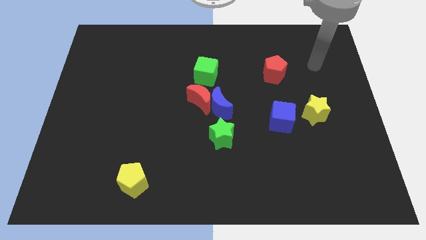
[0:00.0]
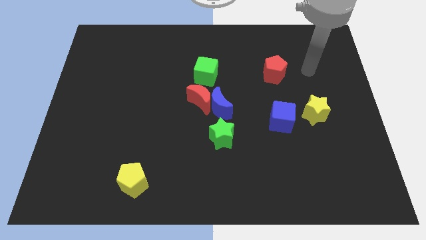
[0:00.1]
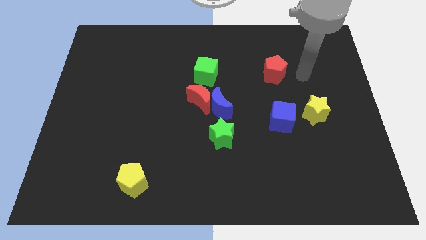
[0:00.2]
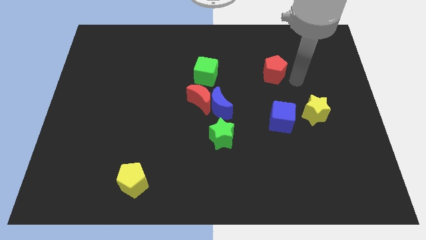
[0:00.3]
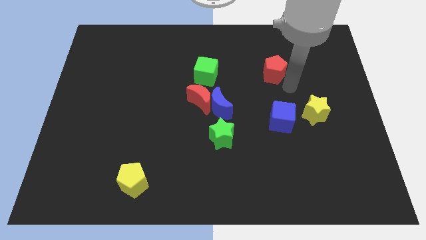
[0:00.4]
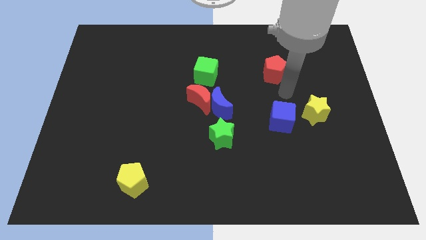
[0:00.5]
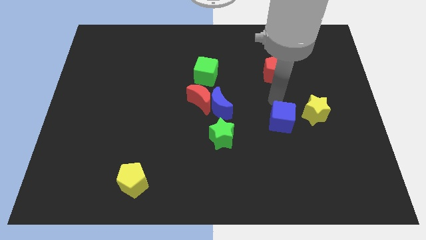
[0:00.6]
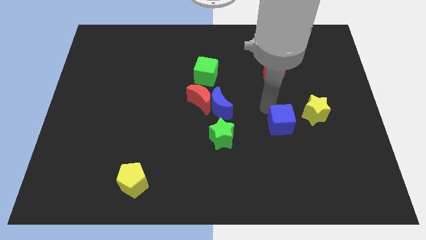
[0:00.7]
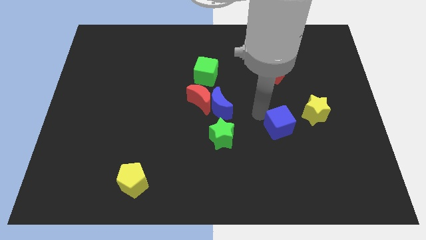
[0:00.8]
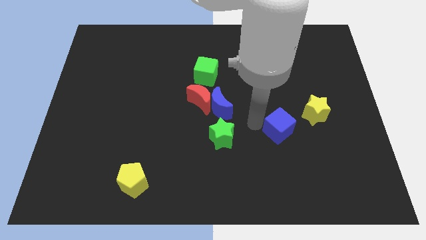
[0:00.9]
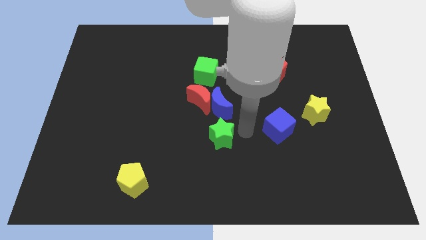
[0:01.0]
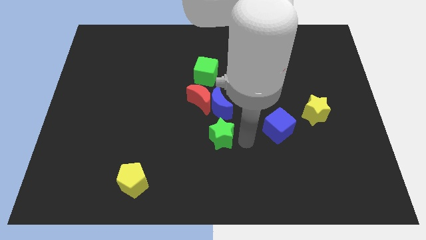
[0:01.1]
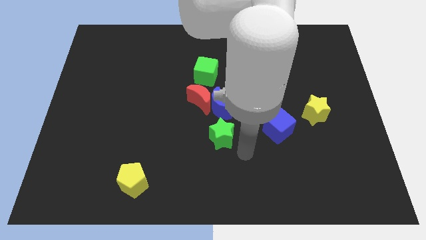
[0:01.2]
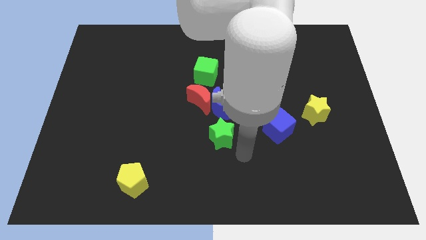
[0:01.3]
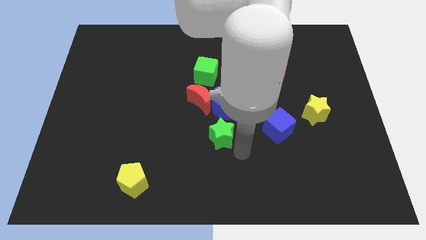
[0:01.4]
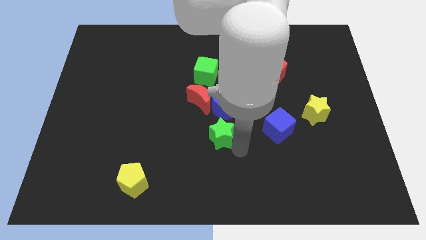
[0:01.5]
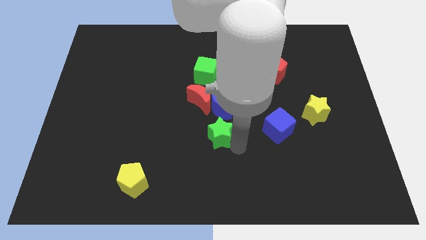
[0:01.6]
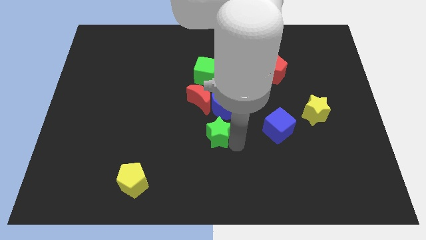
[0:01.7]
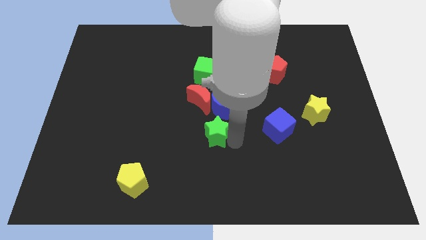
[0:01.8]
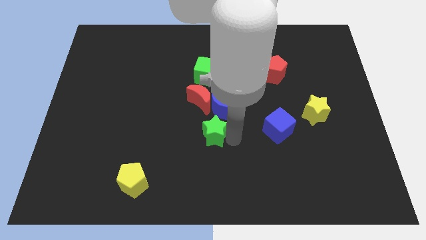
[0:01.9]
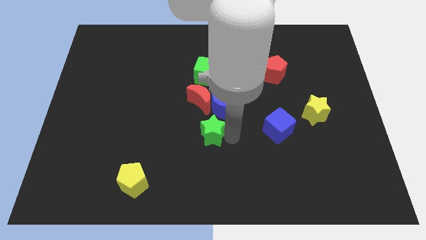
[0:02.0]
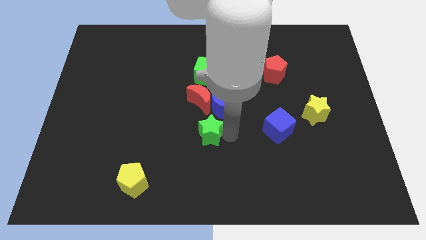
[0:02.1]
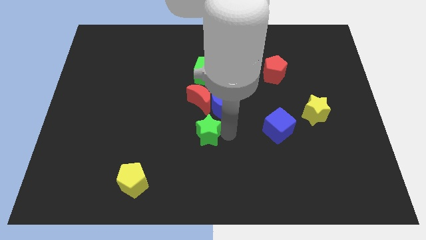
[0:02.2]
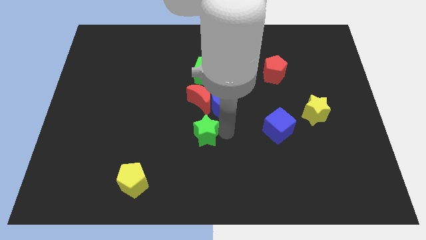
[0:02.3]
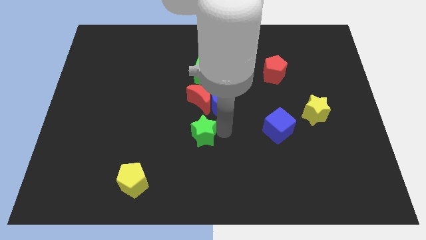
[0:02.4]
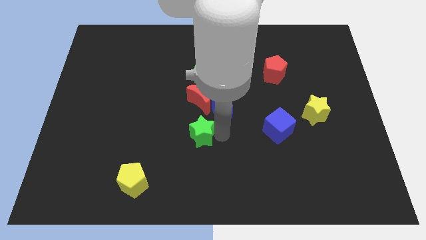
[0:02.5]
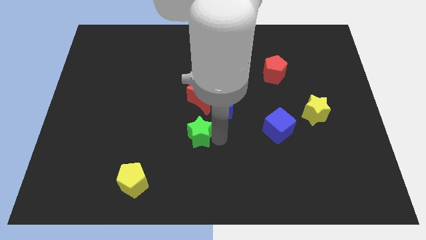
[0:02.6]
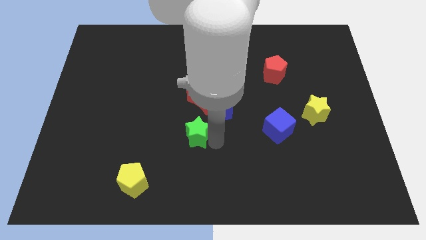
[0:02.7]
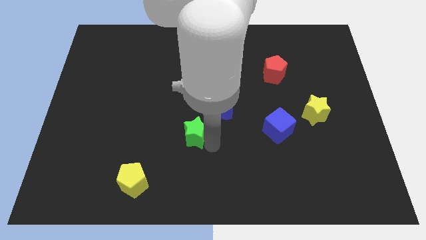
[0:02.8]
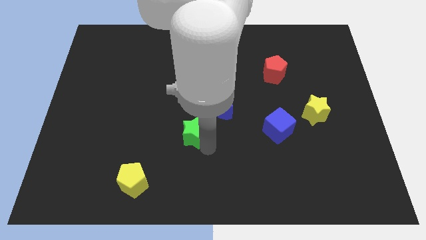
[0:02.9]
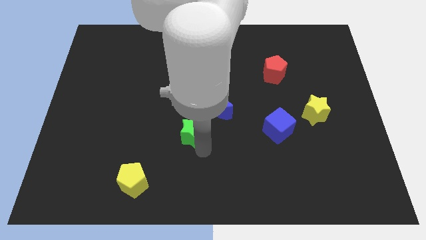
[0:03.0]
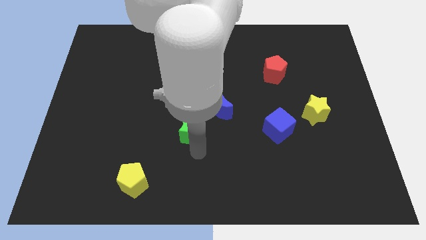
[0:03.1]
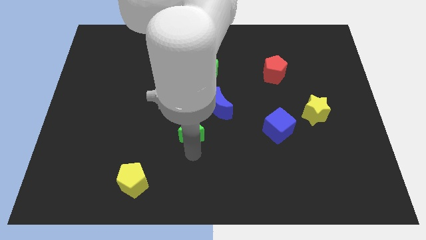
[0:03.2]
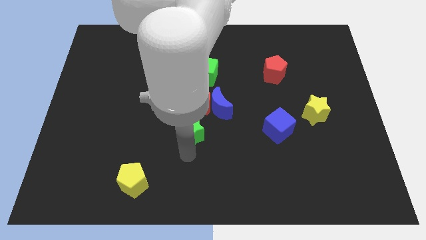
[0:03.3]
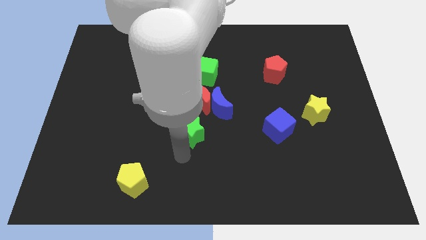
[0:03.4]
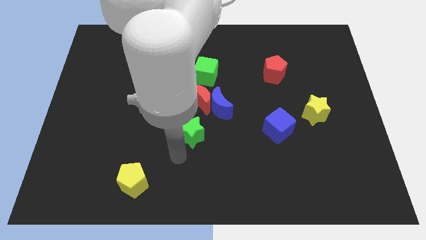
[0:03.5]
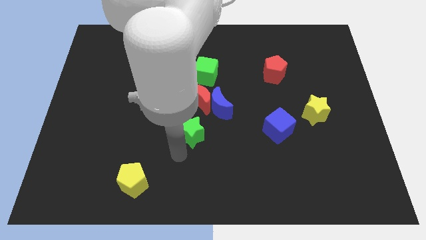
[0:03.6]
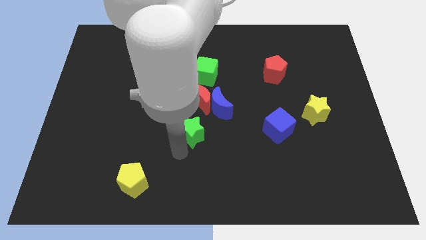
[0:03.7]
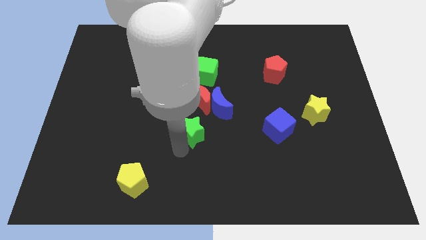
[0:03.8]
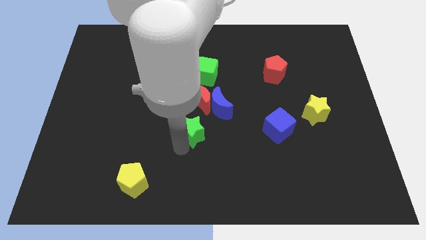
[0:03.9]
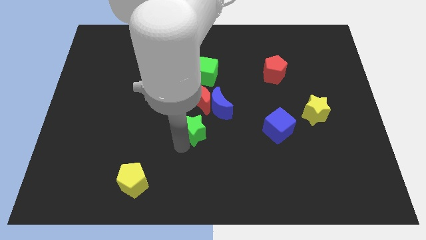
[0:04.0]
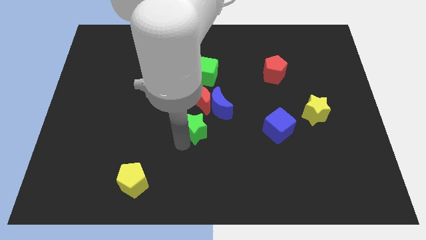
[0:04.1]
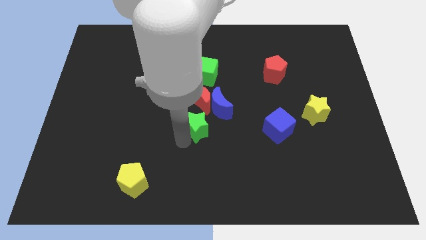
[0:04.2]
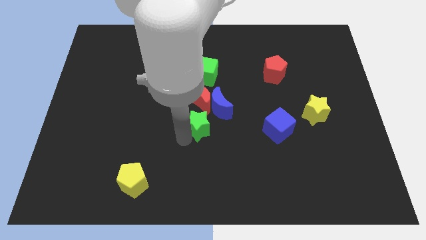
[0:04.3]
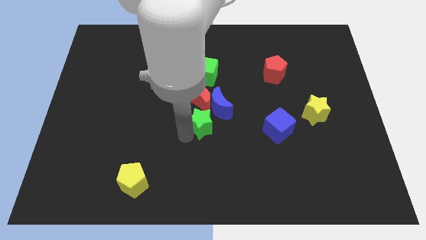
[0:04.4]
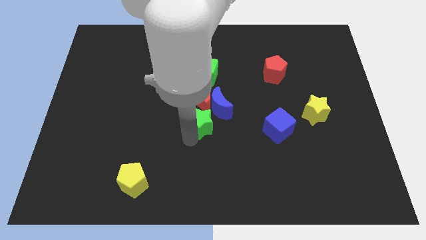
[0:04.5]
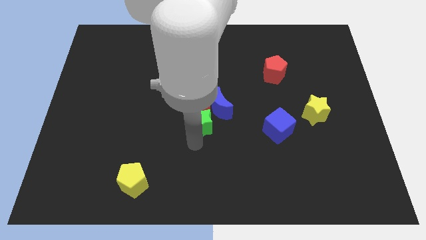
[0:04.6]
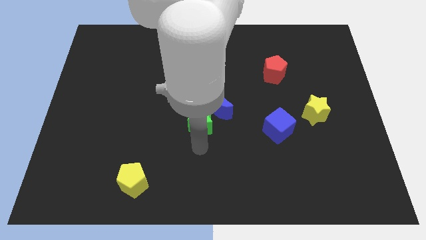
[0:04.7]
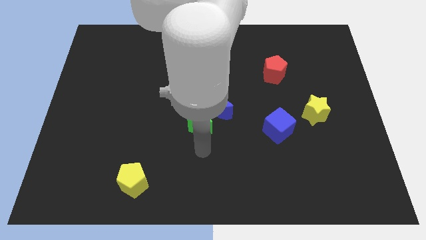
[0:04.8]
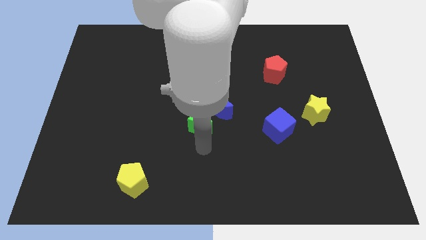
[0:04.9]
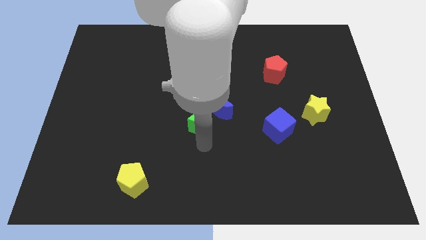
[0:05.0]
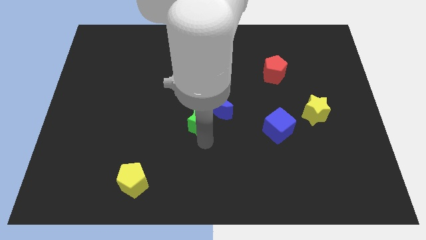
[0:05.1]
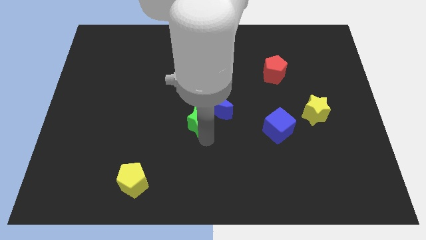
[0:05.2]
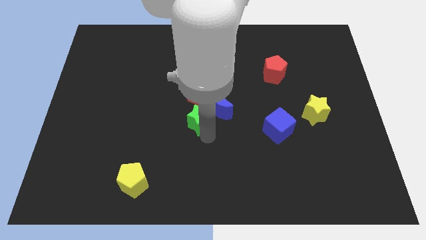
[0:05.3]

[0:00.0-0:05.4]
slide the green star towards the red moon

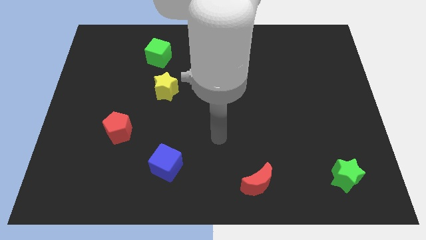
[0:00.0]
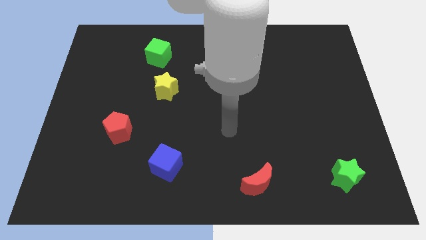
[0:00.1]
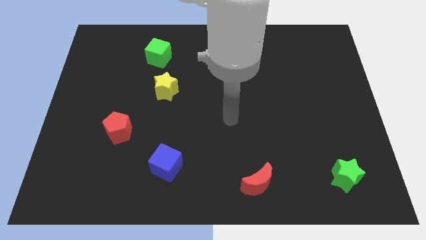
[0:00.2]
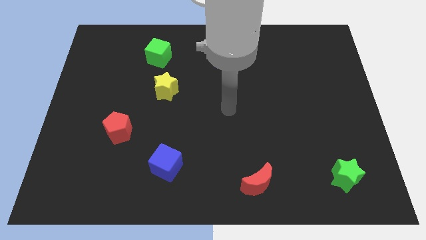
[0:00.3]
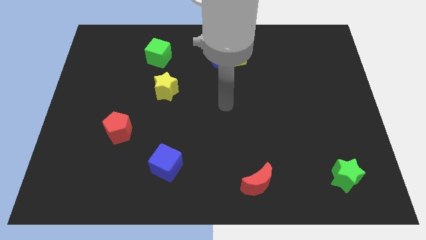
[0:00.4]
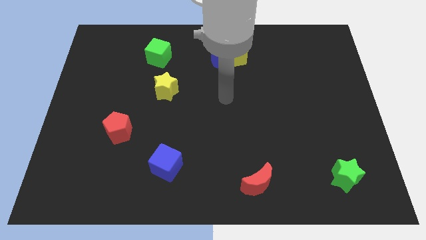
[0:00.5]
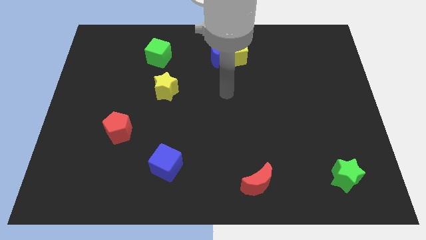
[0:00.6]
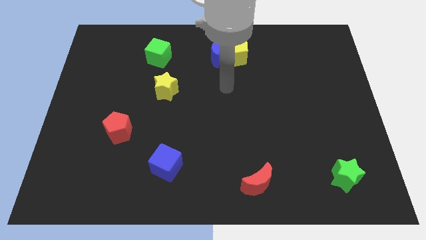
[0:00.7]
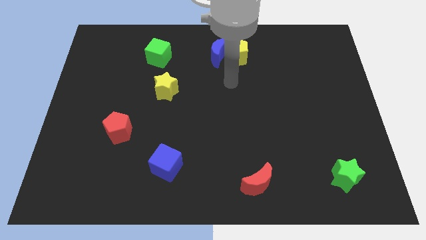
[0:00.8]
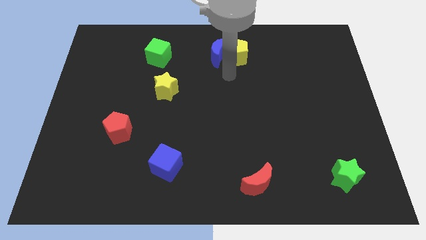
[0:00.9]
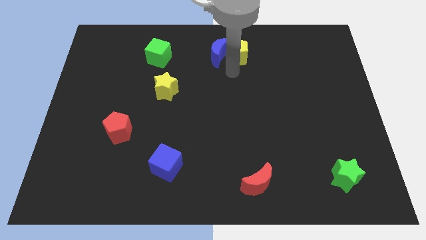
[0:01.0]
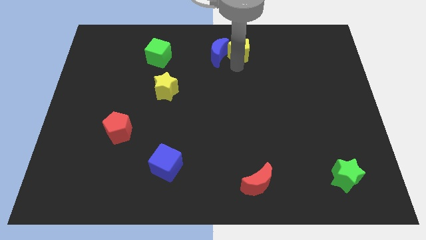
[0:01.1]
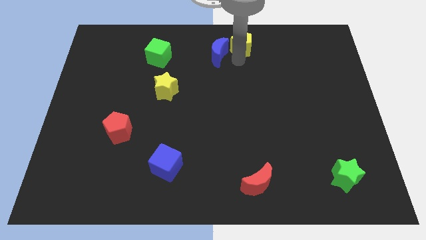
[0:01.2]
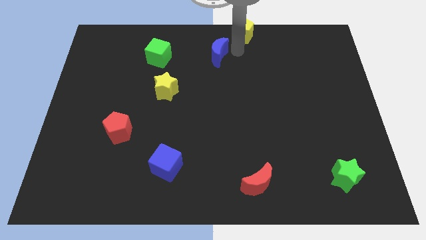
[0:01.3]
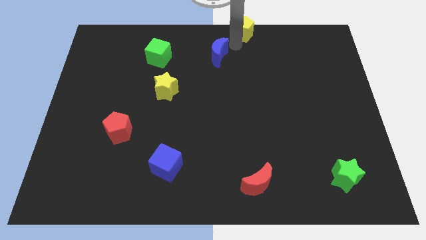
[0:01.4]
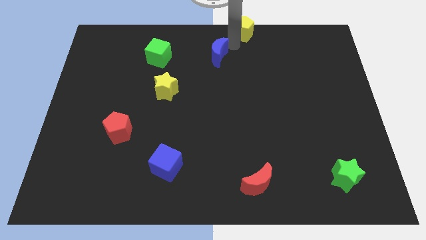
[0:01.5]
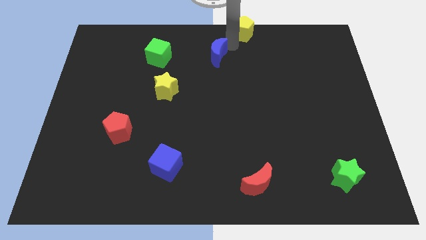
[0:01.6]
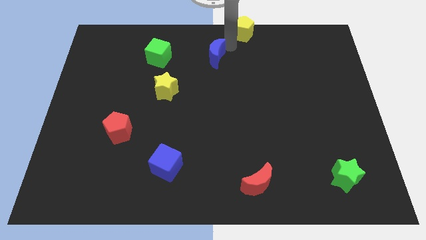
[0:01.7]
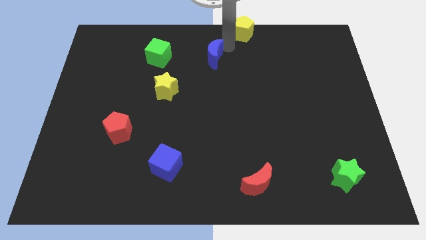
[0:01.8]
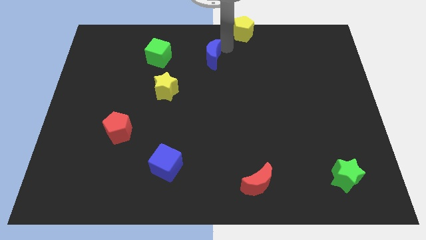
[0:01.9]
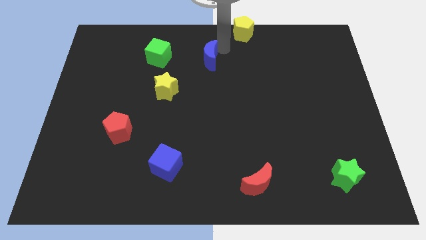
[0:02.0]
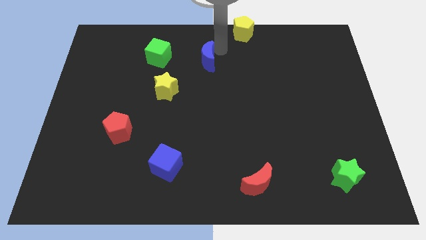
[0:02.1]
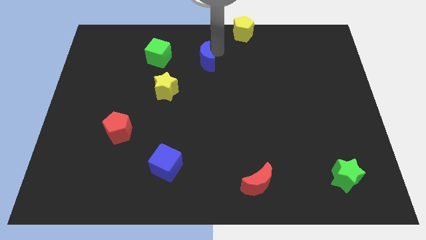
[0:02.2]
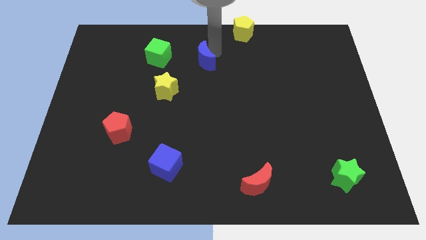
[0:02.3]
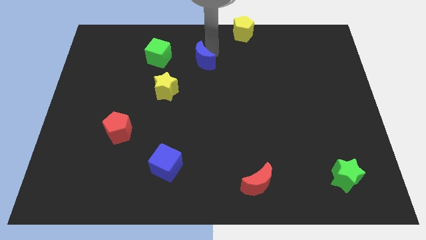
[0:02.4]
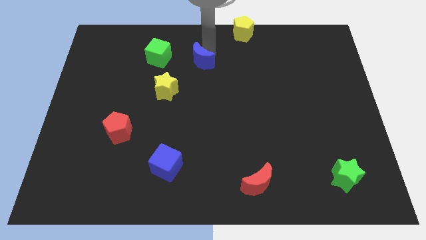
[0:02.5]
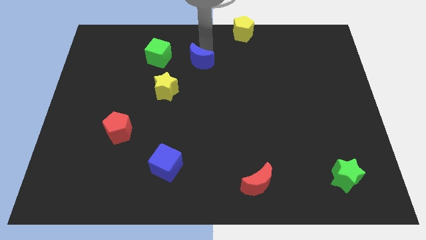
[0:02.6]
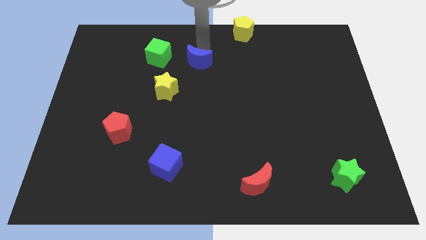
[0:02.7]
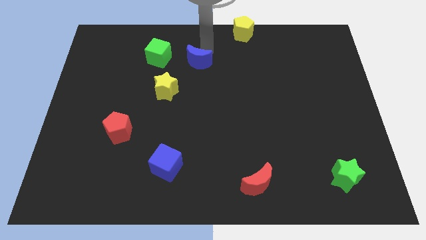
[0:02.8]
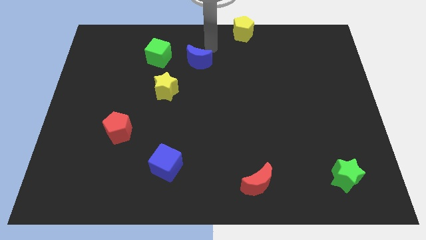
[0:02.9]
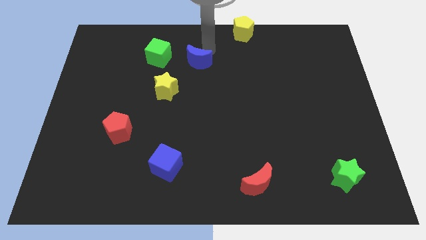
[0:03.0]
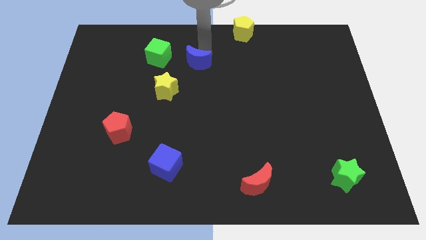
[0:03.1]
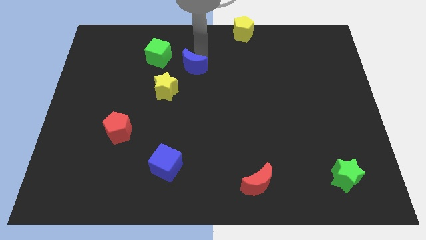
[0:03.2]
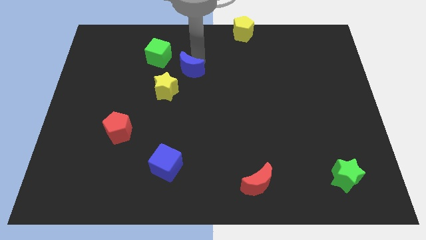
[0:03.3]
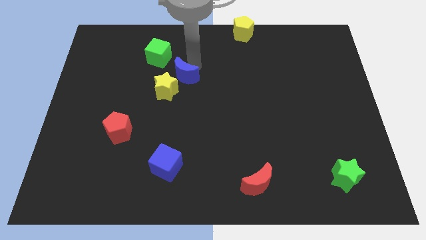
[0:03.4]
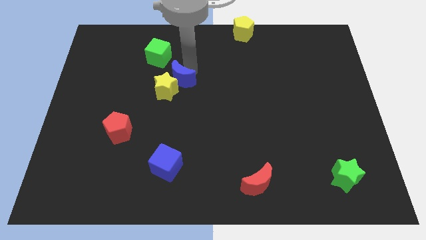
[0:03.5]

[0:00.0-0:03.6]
put the blue moon towards the yellow star
